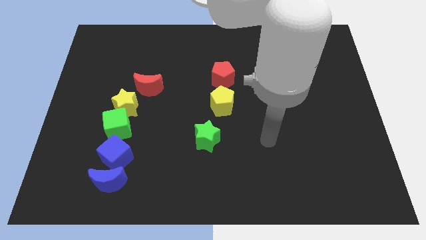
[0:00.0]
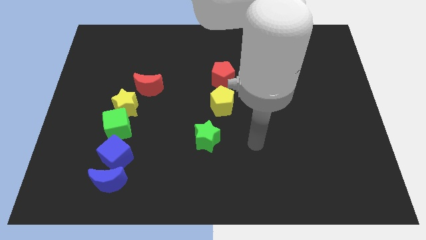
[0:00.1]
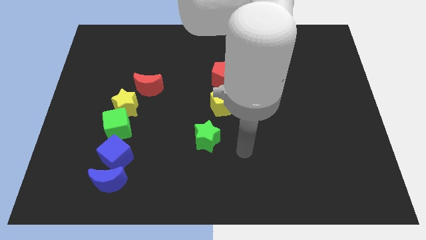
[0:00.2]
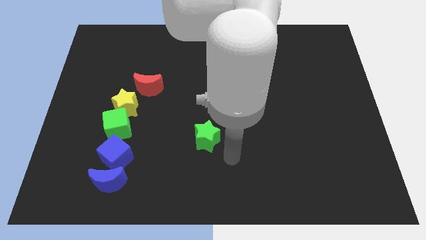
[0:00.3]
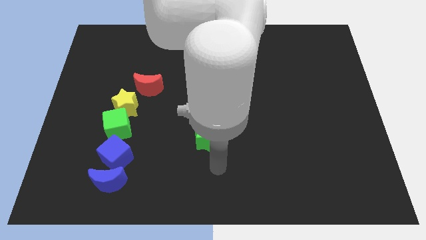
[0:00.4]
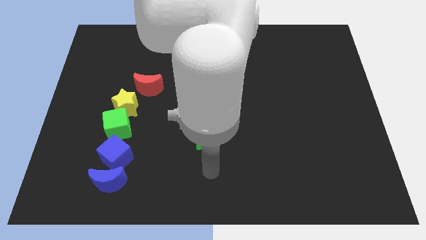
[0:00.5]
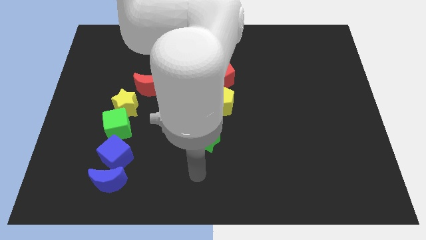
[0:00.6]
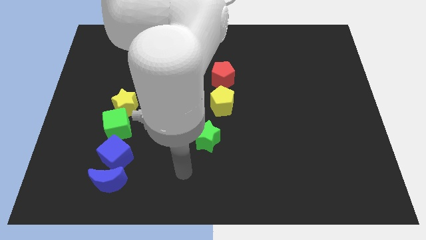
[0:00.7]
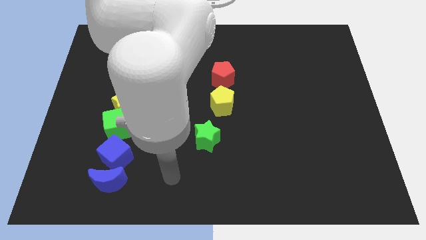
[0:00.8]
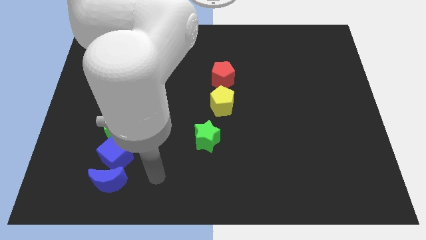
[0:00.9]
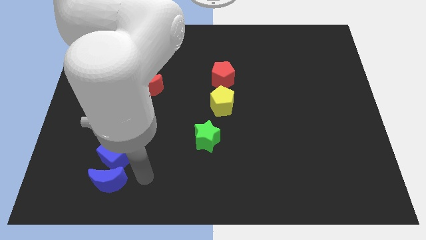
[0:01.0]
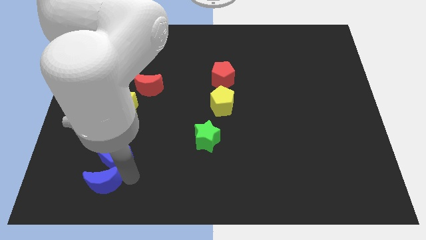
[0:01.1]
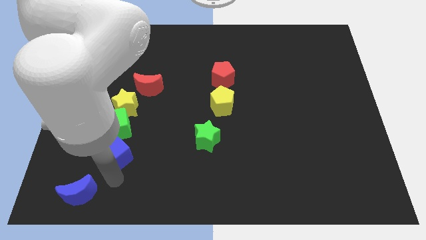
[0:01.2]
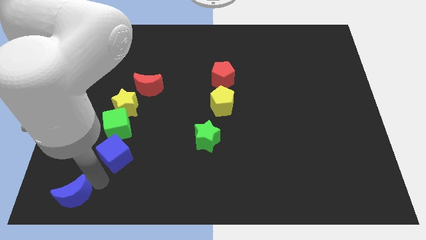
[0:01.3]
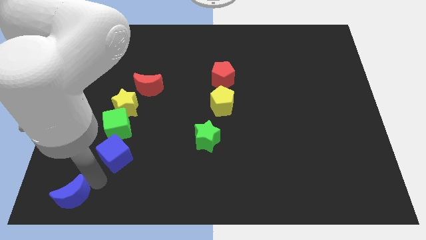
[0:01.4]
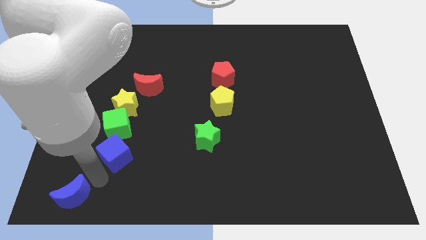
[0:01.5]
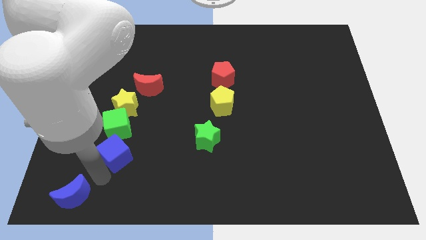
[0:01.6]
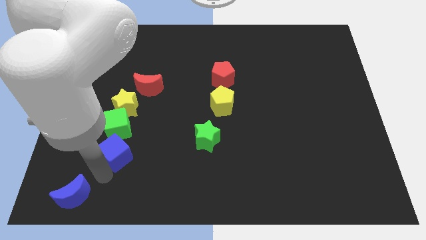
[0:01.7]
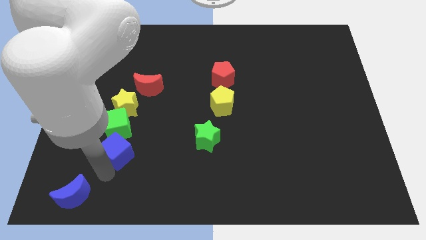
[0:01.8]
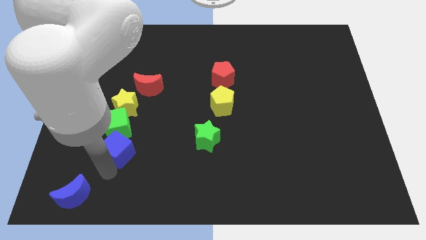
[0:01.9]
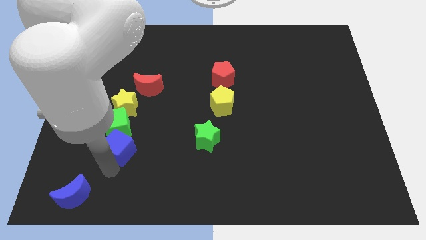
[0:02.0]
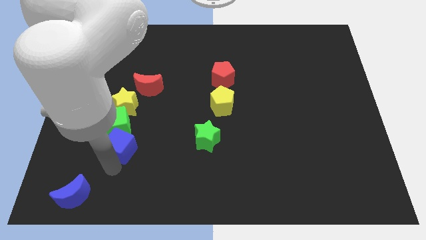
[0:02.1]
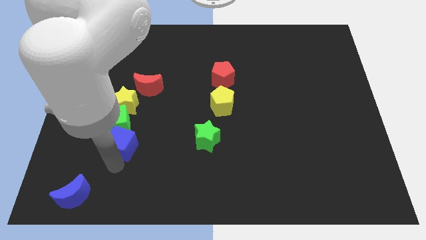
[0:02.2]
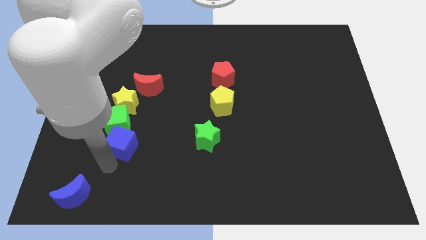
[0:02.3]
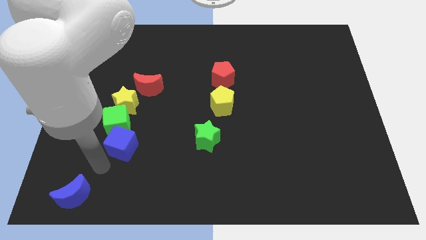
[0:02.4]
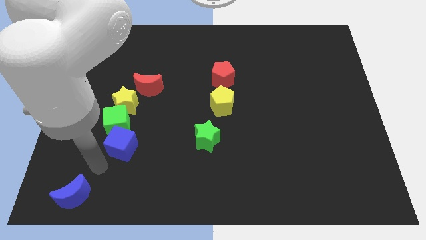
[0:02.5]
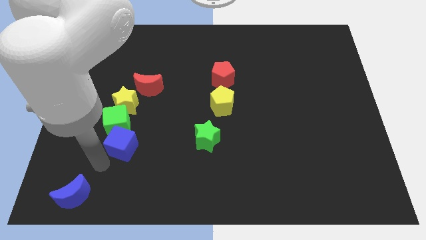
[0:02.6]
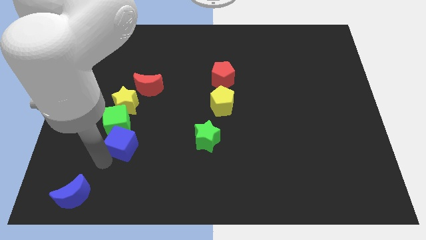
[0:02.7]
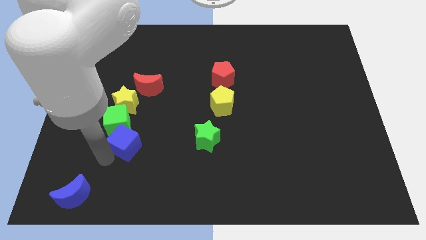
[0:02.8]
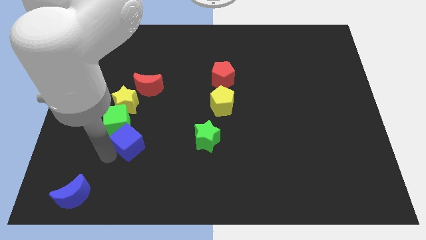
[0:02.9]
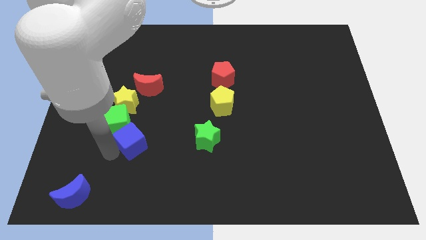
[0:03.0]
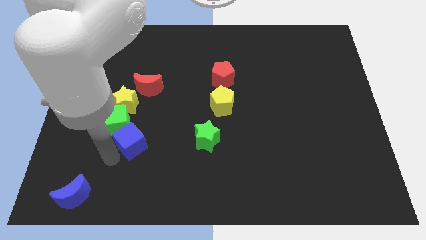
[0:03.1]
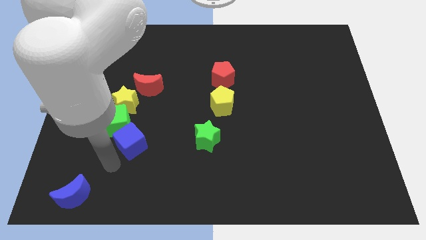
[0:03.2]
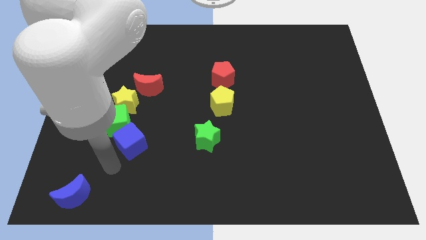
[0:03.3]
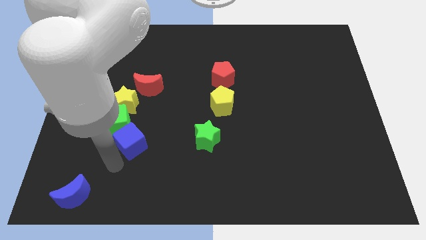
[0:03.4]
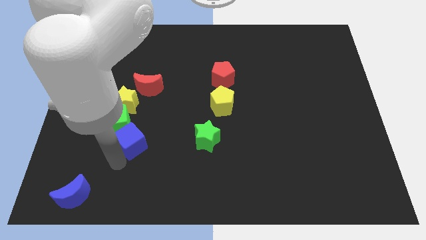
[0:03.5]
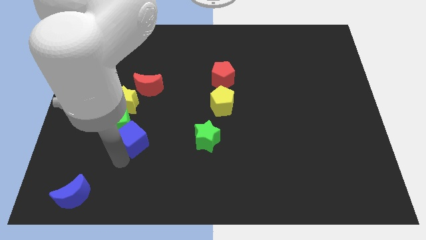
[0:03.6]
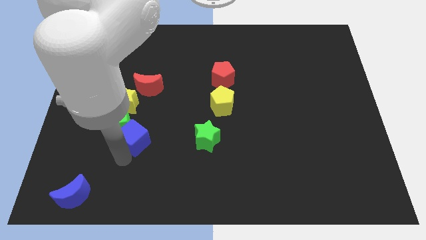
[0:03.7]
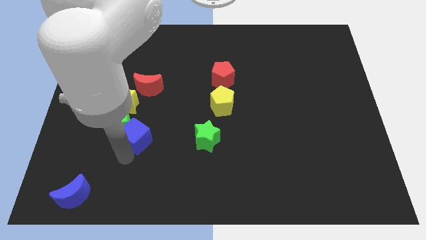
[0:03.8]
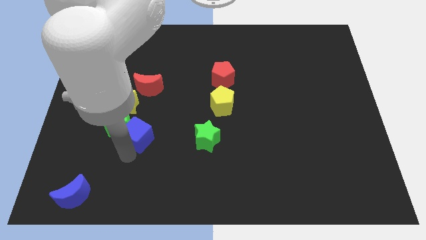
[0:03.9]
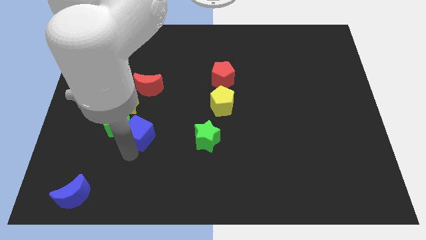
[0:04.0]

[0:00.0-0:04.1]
push the blue cube a little bit up and to the right

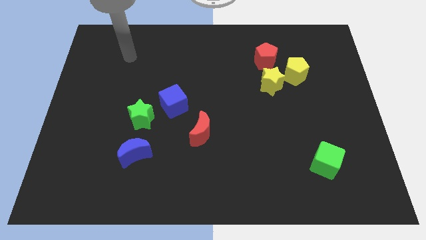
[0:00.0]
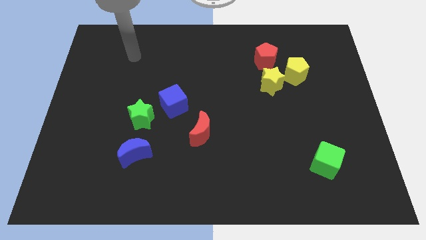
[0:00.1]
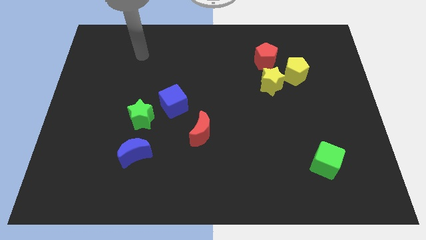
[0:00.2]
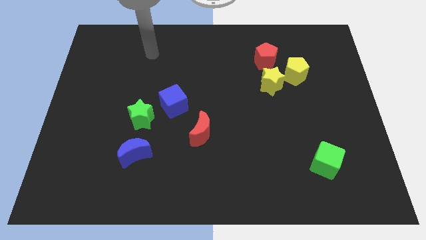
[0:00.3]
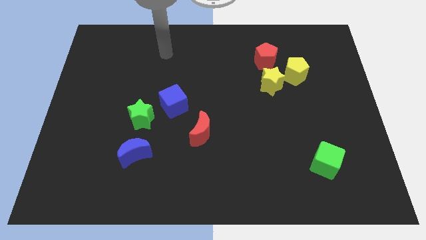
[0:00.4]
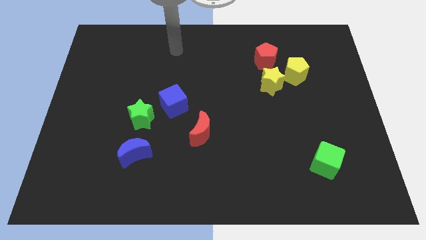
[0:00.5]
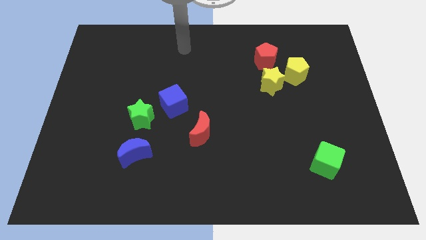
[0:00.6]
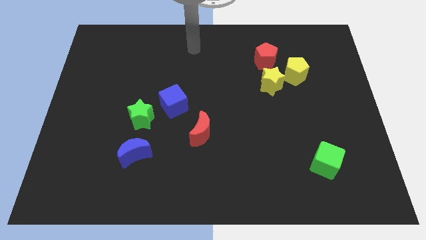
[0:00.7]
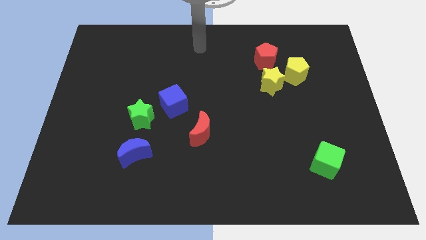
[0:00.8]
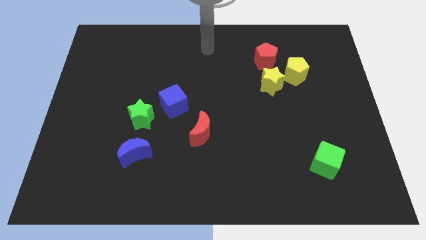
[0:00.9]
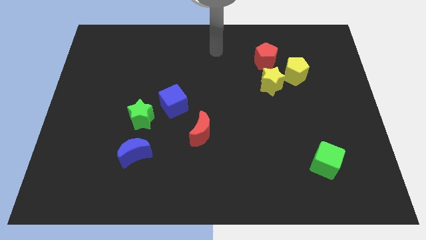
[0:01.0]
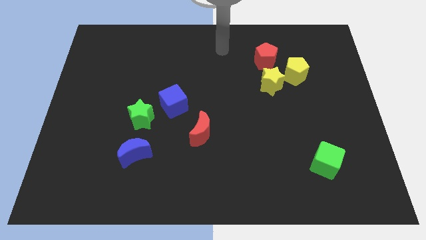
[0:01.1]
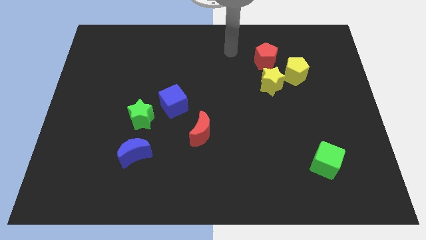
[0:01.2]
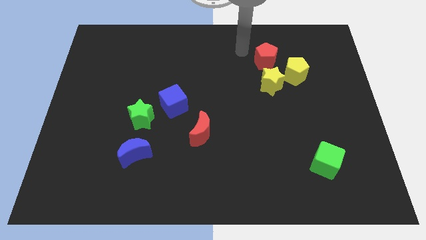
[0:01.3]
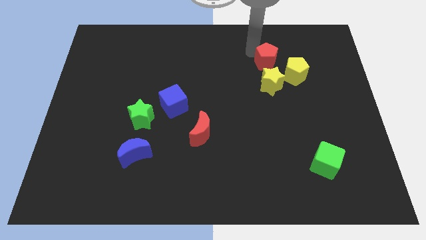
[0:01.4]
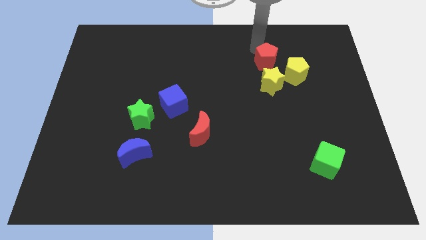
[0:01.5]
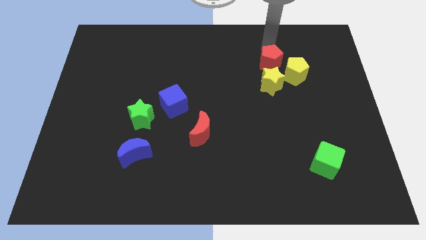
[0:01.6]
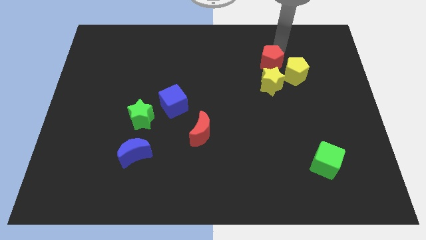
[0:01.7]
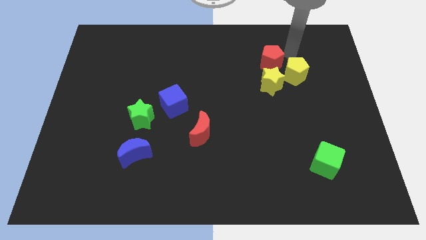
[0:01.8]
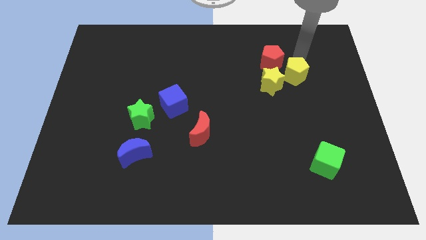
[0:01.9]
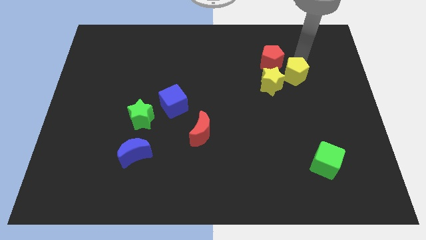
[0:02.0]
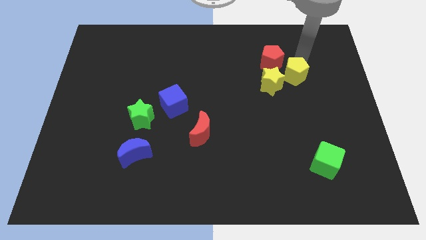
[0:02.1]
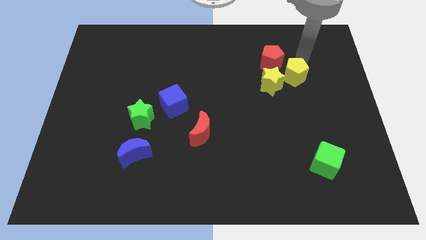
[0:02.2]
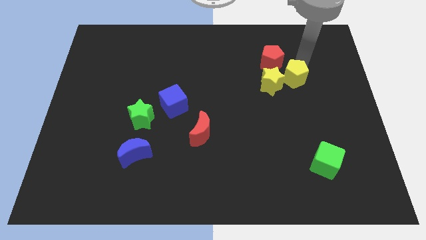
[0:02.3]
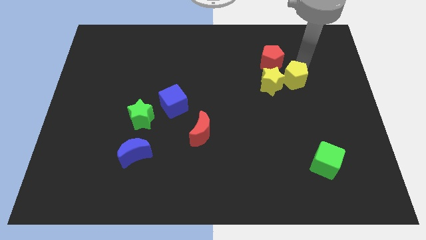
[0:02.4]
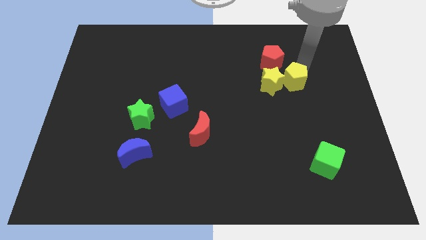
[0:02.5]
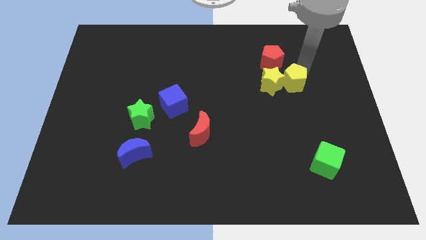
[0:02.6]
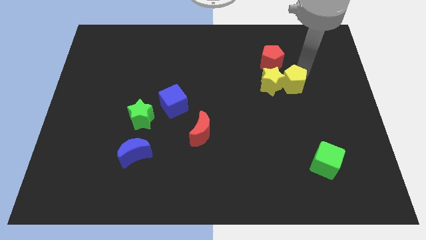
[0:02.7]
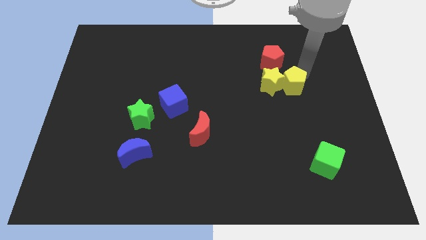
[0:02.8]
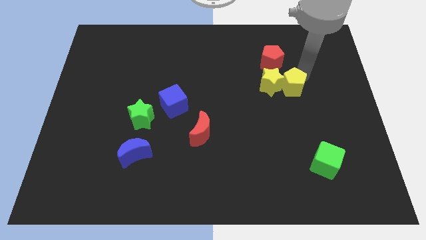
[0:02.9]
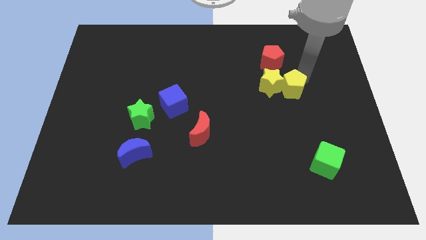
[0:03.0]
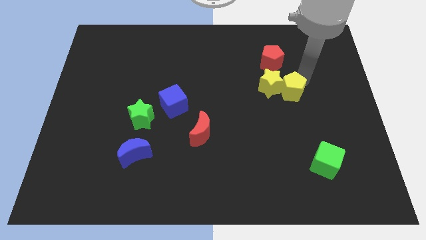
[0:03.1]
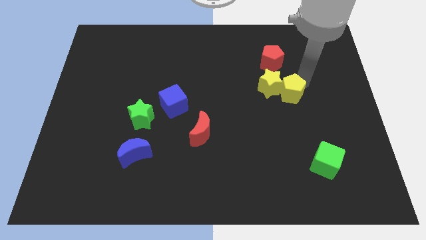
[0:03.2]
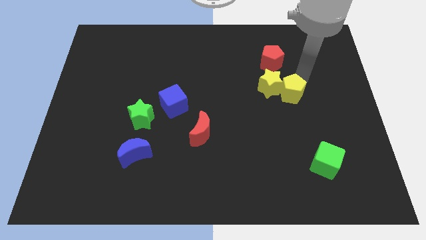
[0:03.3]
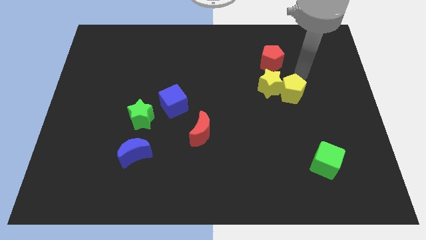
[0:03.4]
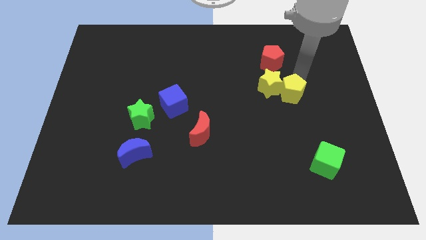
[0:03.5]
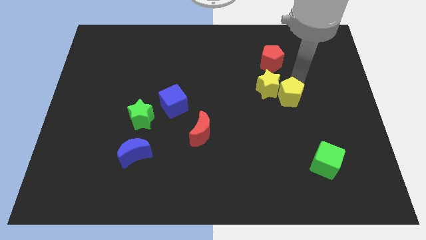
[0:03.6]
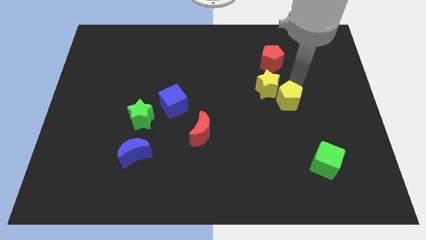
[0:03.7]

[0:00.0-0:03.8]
slide the yellow pentagon a little down and to the left
